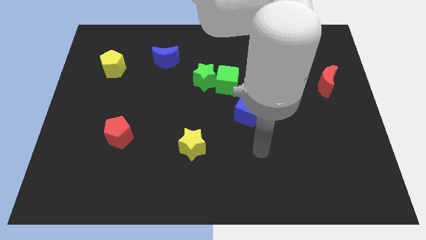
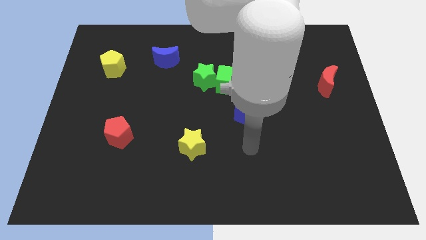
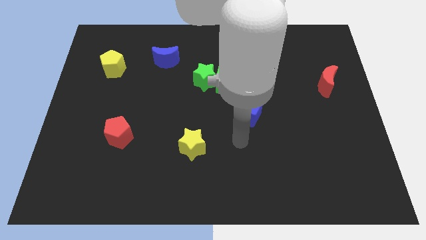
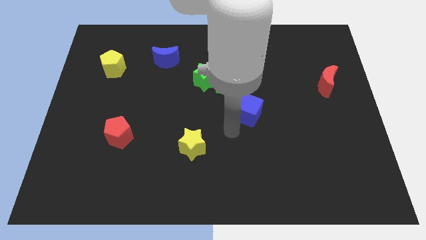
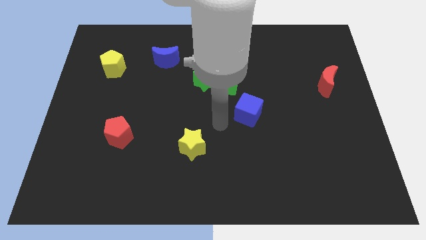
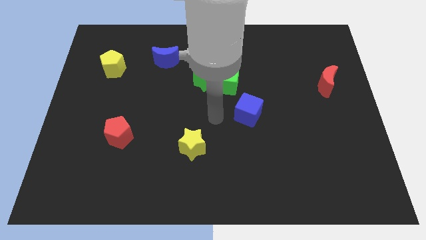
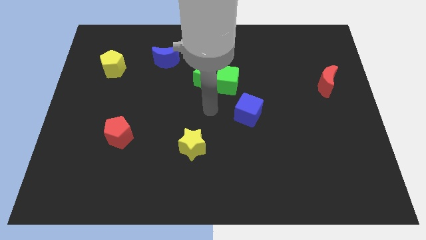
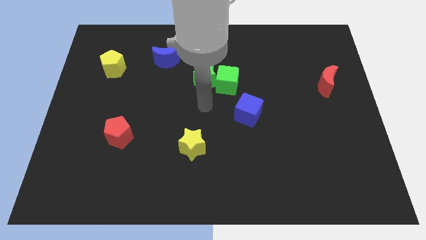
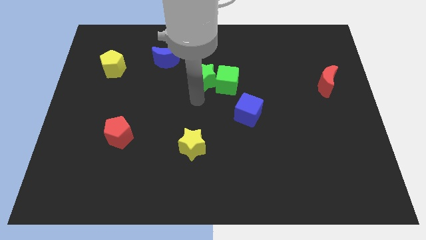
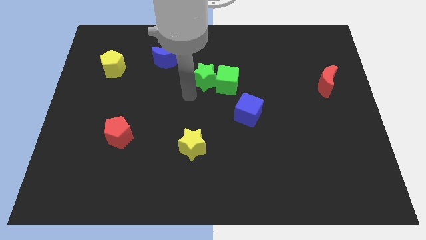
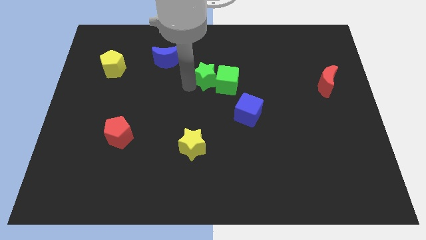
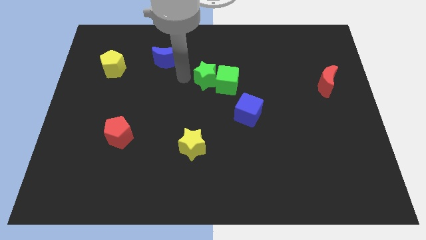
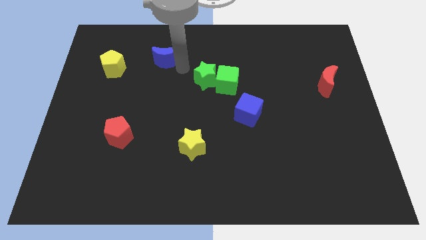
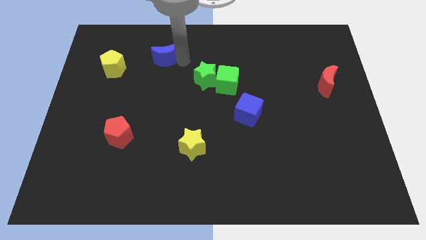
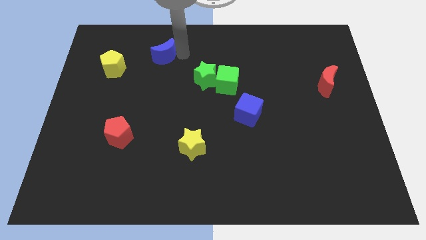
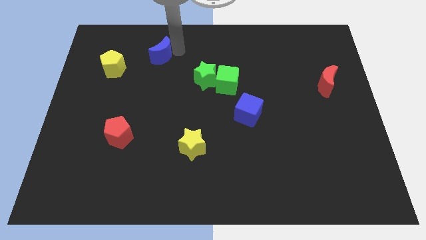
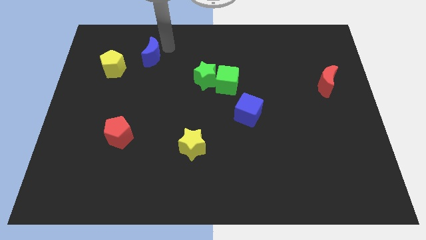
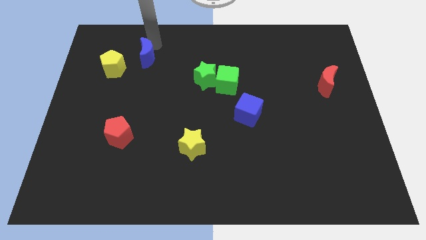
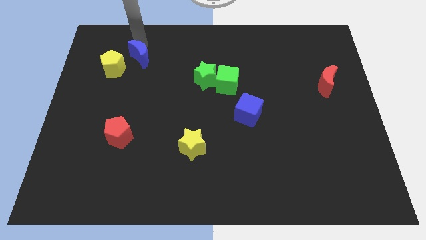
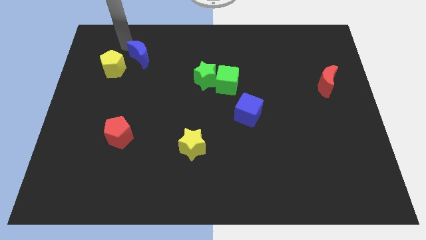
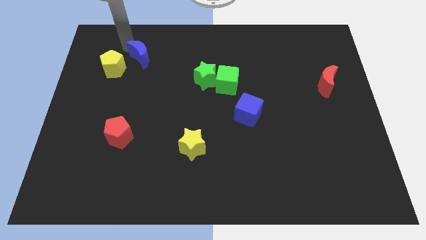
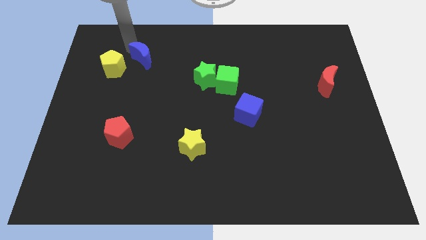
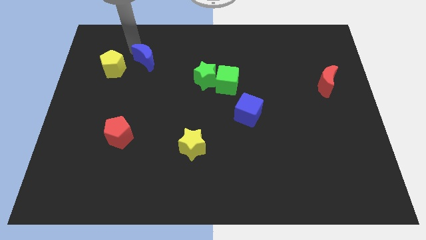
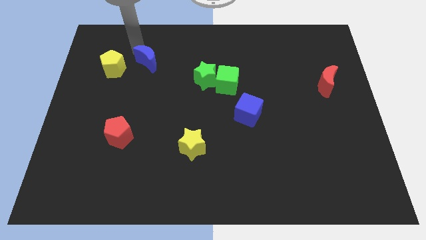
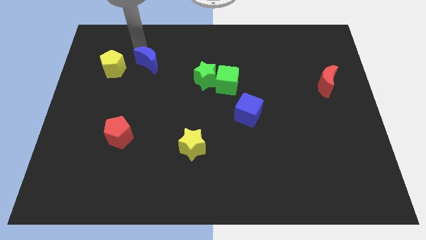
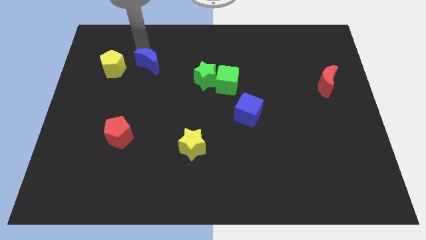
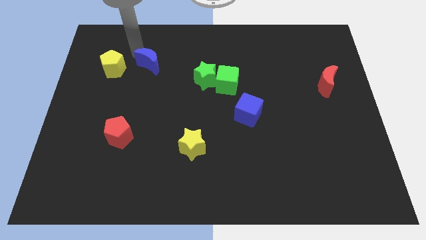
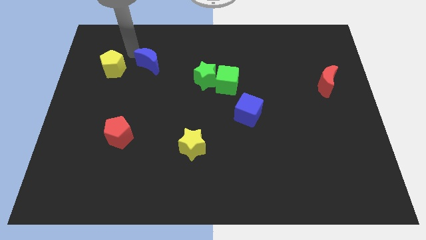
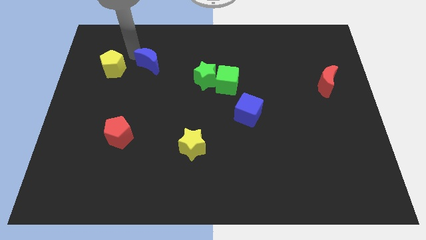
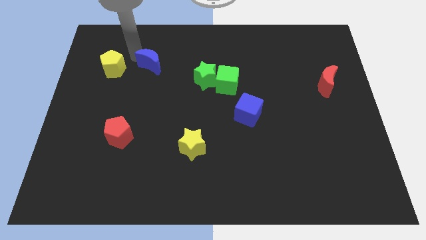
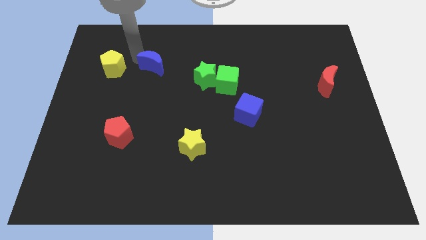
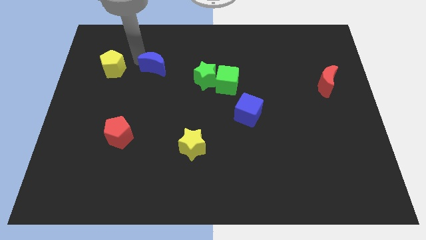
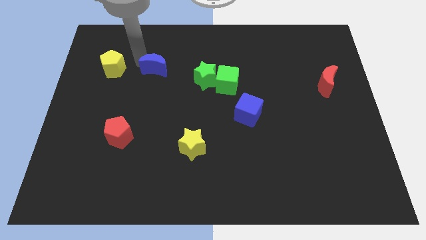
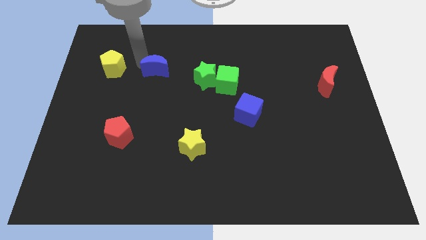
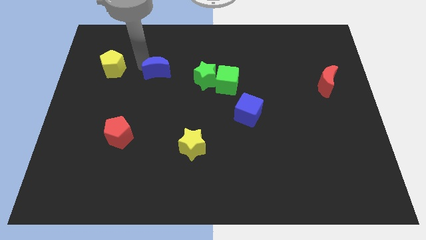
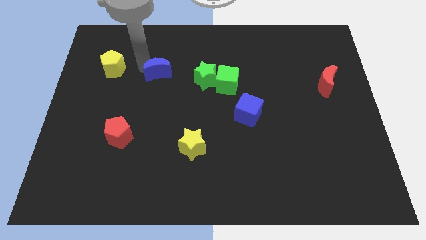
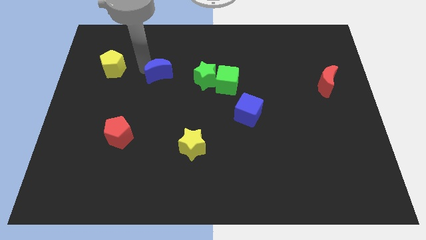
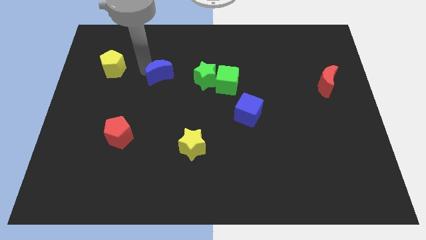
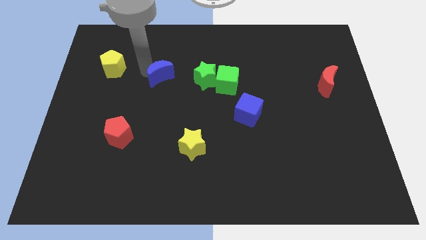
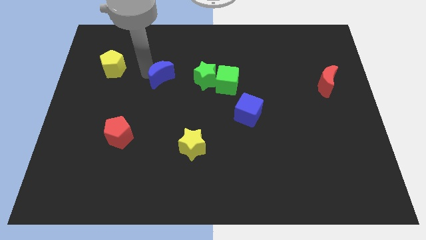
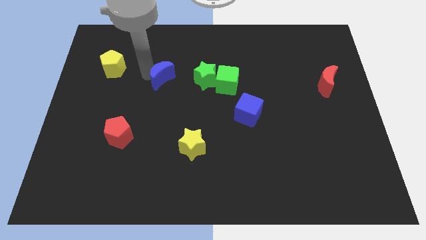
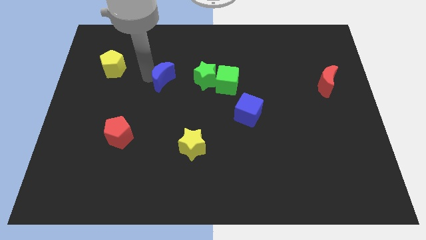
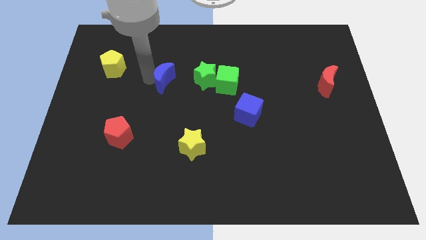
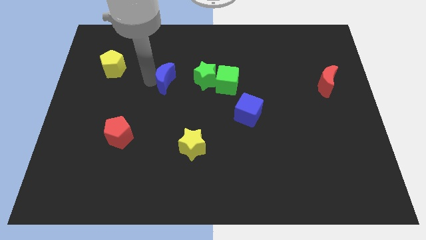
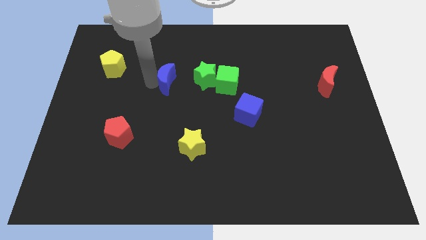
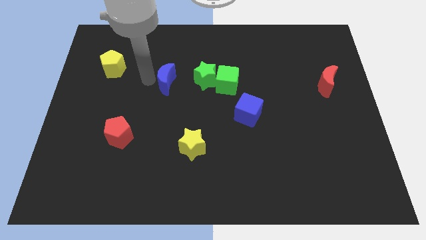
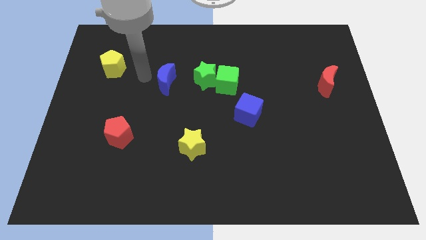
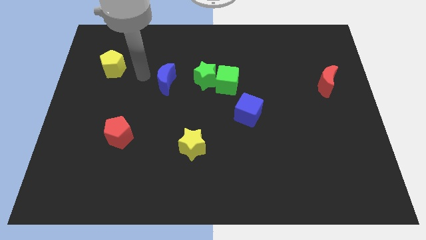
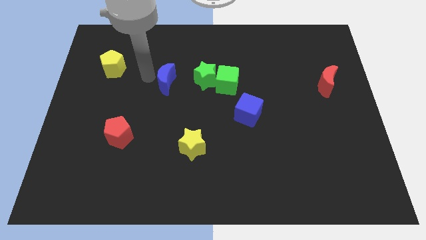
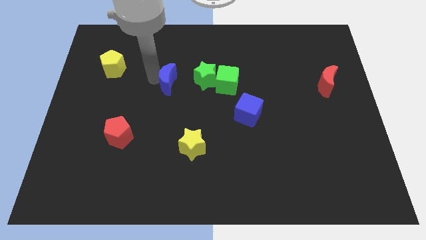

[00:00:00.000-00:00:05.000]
slide the blue moon to the middle
